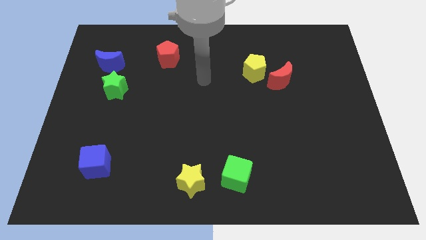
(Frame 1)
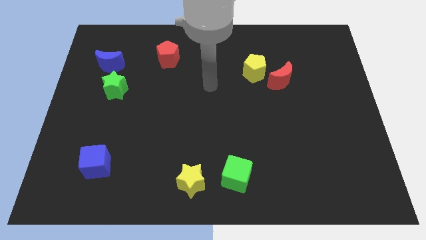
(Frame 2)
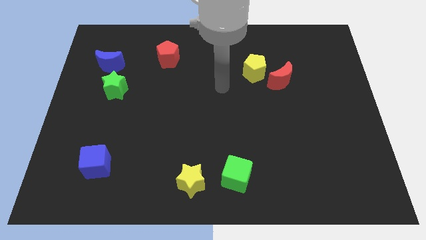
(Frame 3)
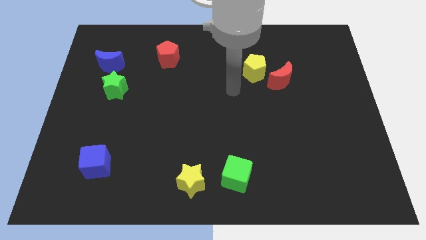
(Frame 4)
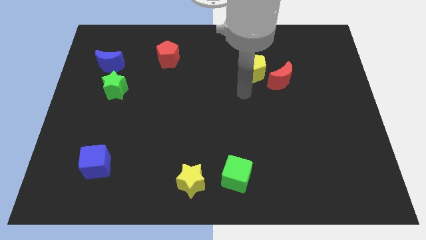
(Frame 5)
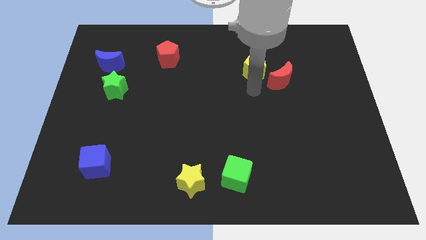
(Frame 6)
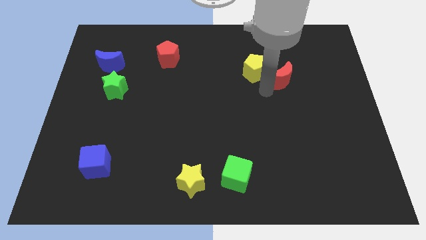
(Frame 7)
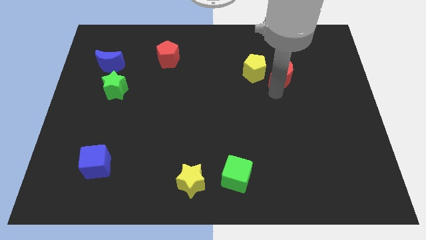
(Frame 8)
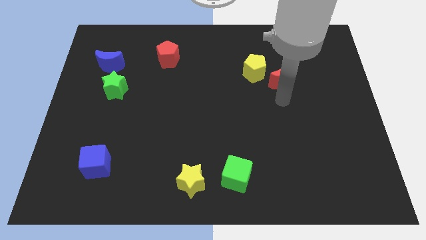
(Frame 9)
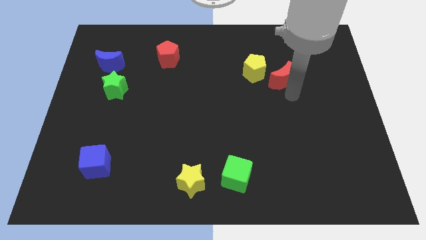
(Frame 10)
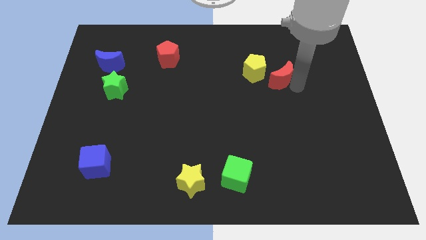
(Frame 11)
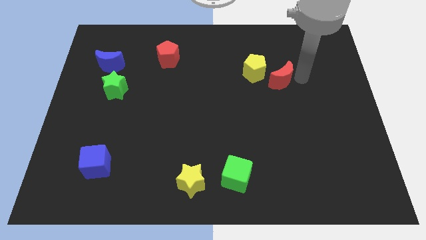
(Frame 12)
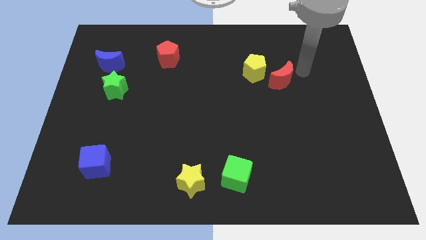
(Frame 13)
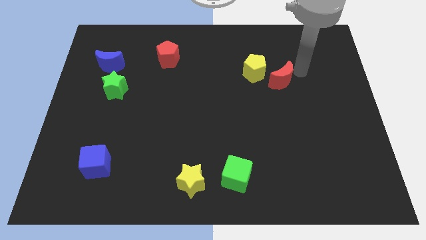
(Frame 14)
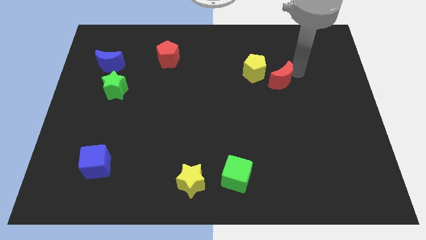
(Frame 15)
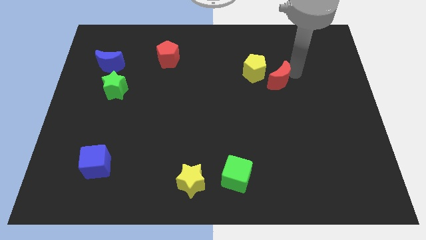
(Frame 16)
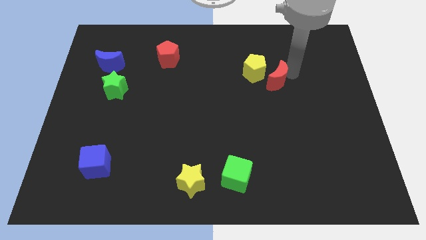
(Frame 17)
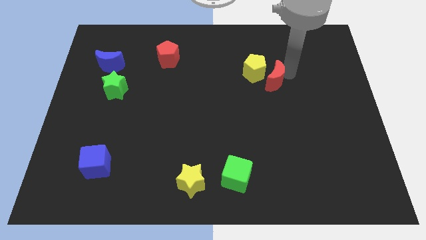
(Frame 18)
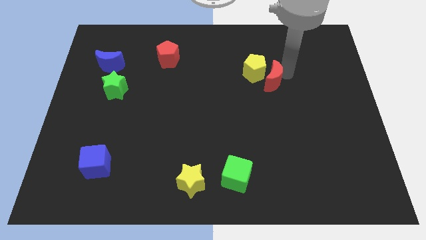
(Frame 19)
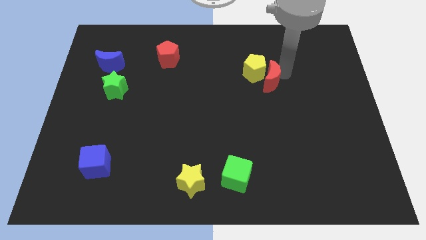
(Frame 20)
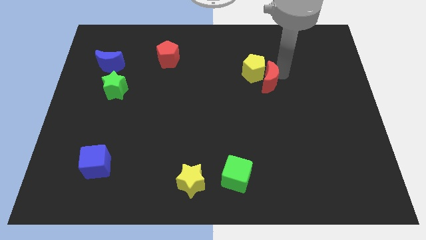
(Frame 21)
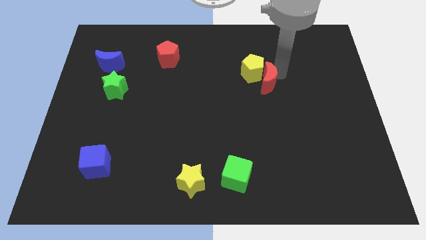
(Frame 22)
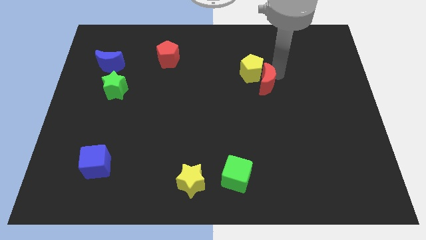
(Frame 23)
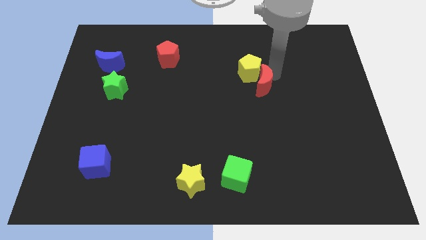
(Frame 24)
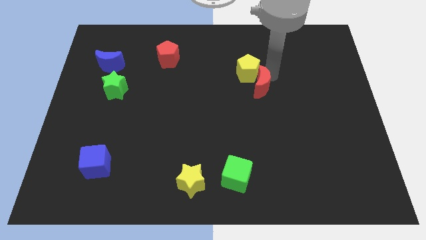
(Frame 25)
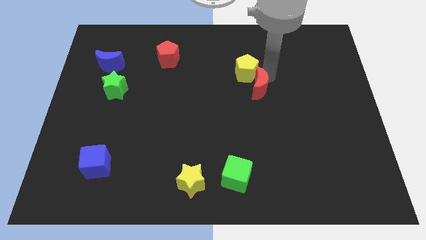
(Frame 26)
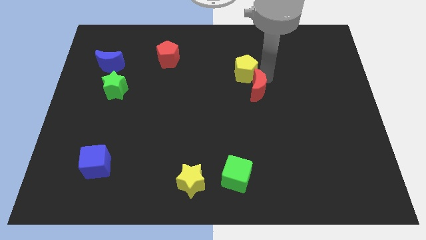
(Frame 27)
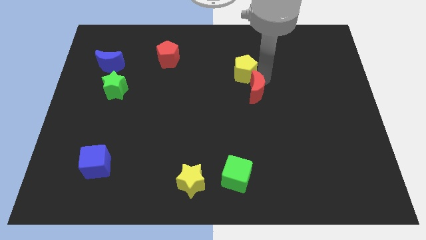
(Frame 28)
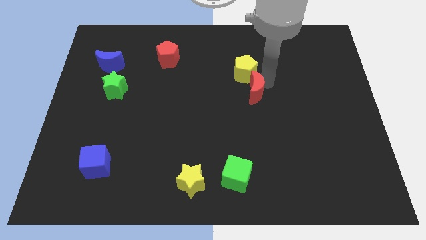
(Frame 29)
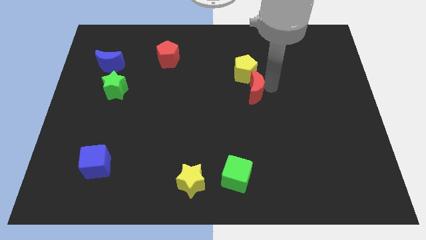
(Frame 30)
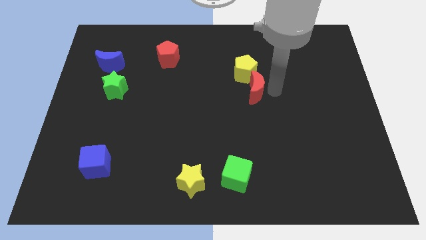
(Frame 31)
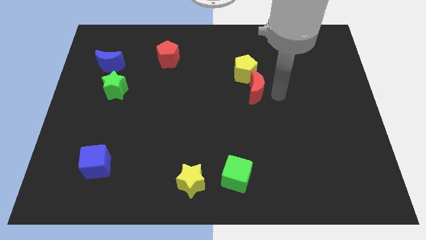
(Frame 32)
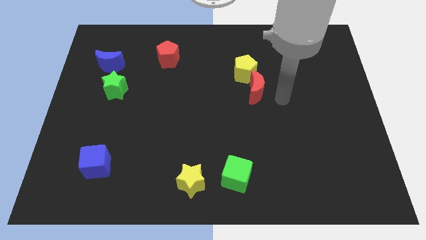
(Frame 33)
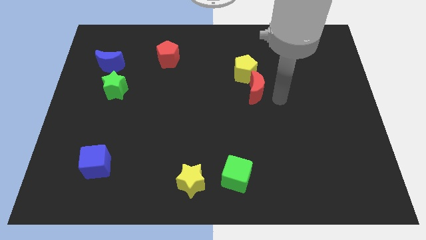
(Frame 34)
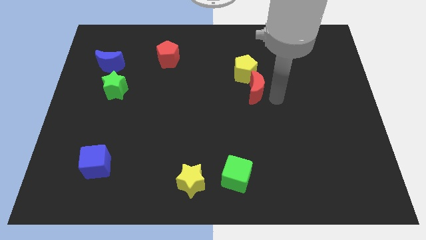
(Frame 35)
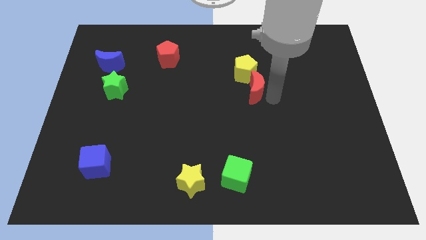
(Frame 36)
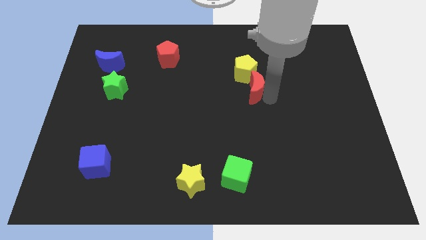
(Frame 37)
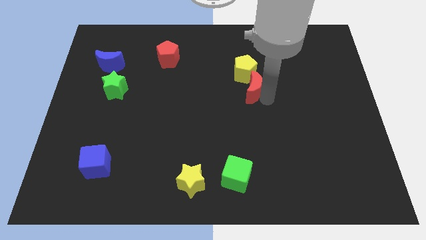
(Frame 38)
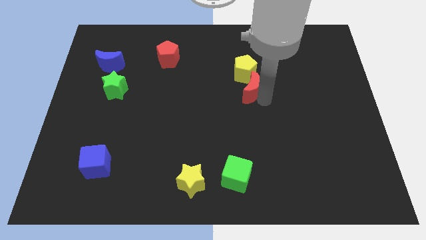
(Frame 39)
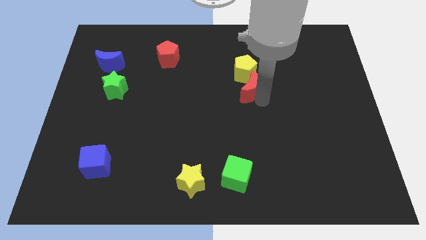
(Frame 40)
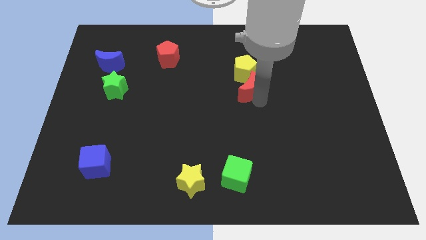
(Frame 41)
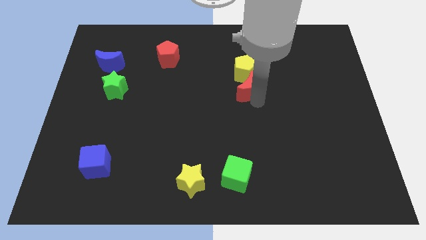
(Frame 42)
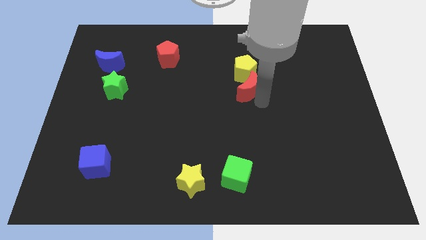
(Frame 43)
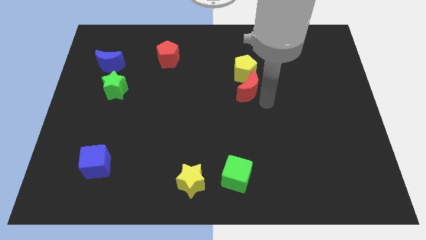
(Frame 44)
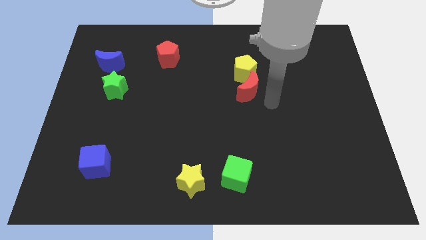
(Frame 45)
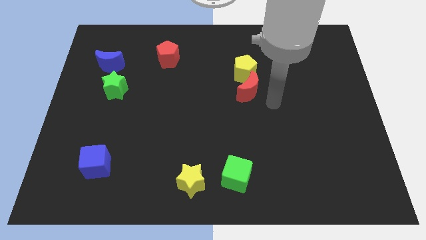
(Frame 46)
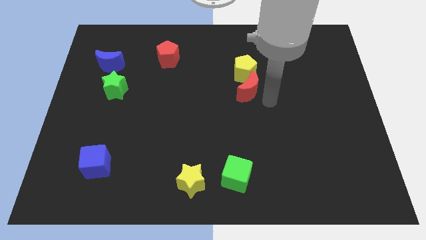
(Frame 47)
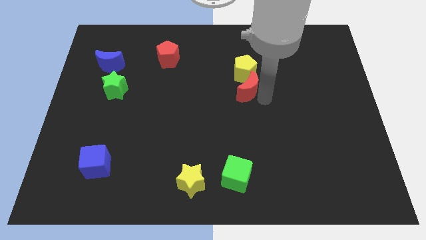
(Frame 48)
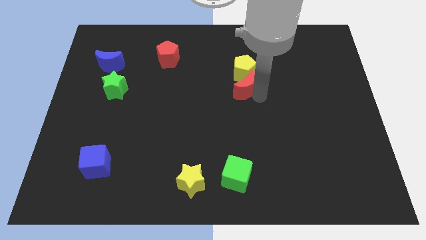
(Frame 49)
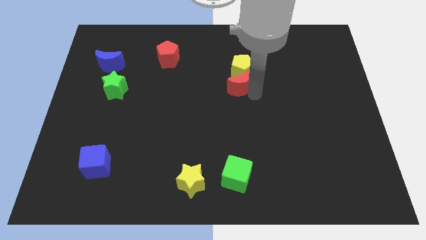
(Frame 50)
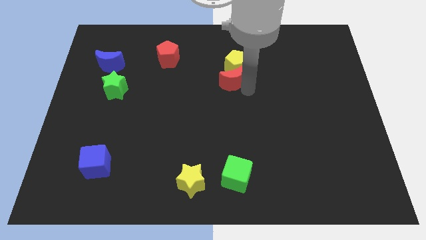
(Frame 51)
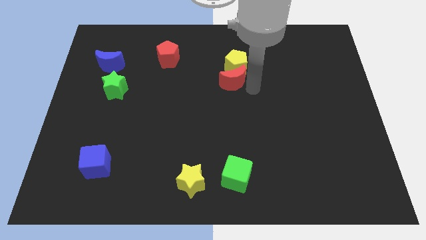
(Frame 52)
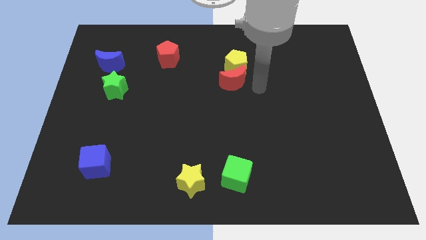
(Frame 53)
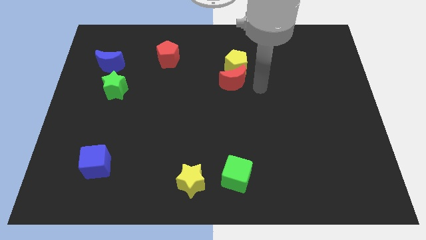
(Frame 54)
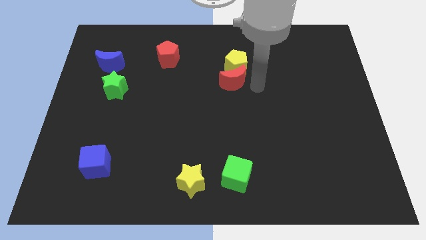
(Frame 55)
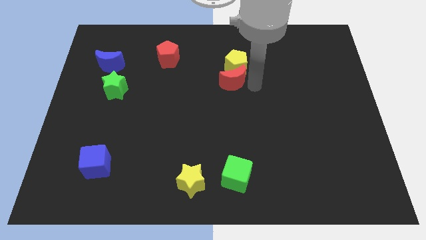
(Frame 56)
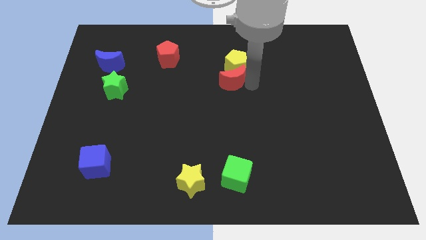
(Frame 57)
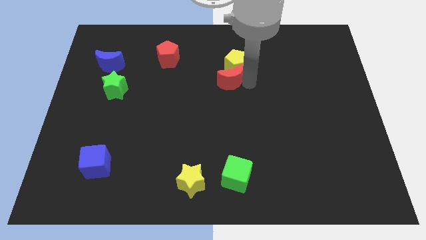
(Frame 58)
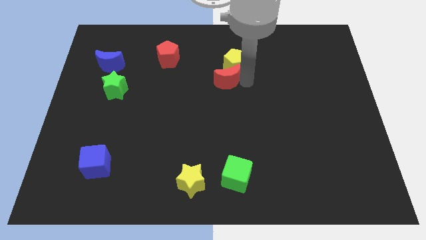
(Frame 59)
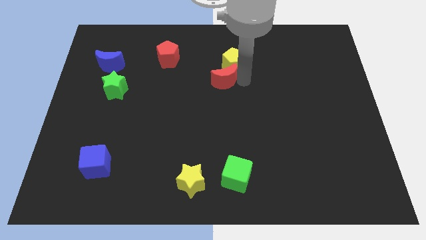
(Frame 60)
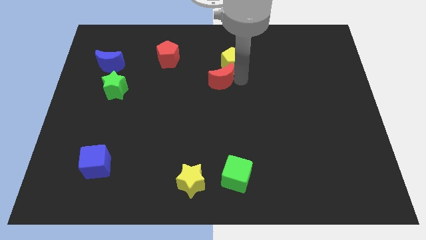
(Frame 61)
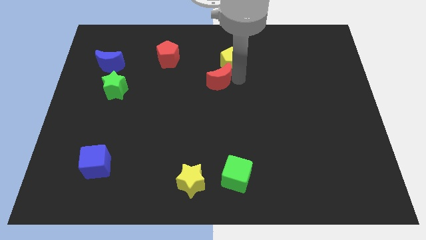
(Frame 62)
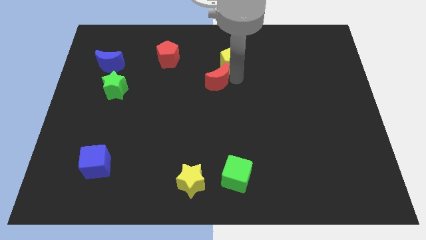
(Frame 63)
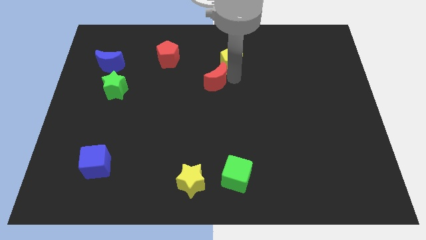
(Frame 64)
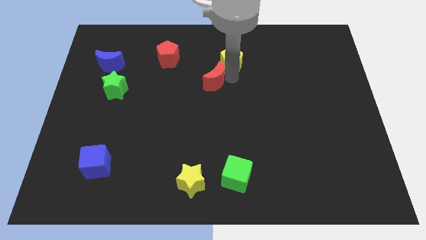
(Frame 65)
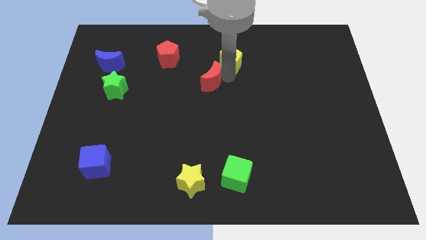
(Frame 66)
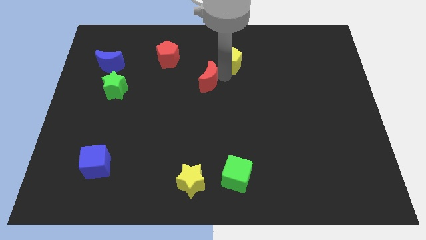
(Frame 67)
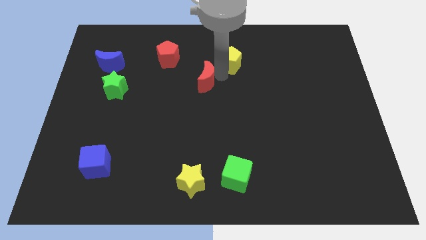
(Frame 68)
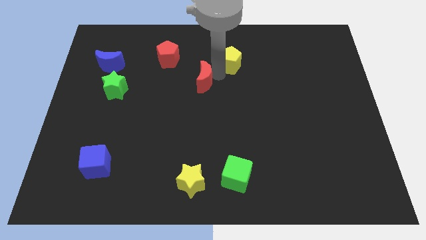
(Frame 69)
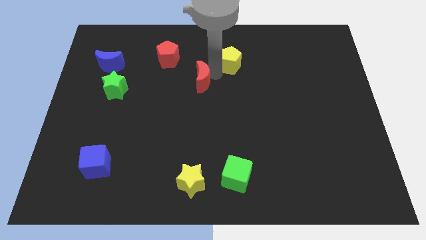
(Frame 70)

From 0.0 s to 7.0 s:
slide the red moon left

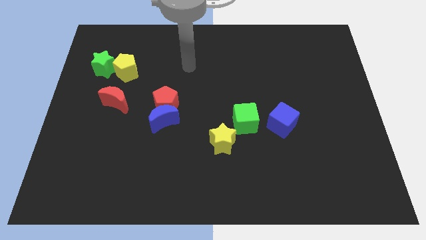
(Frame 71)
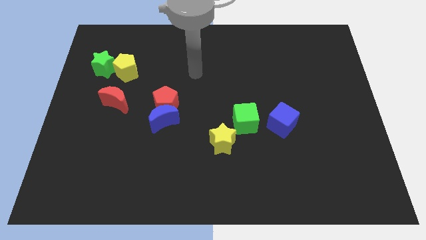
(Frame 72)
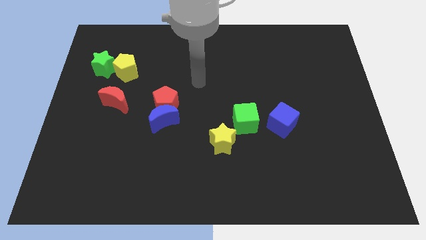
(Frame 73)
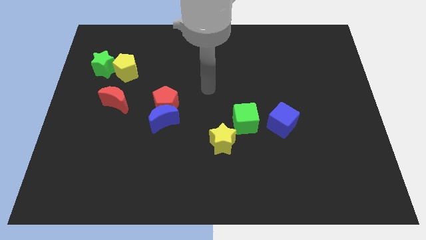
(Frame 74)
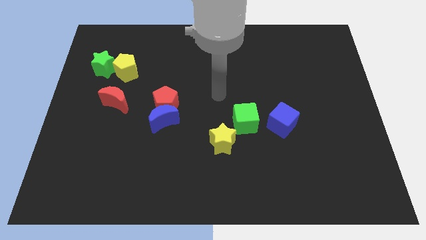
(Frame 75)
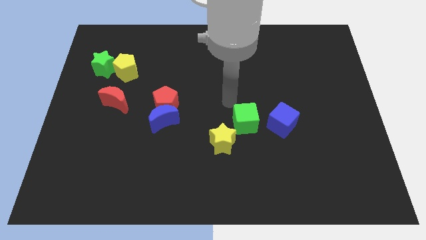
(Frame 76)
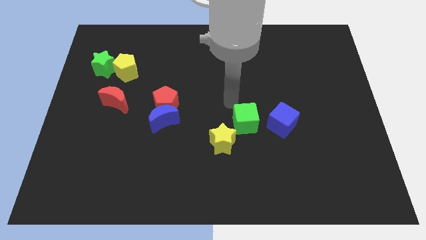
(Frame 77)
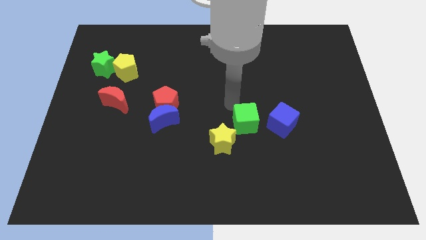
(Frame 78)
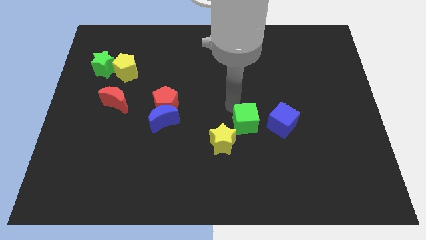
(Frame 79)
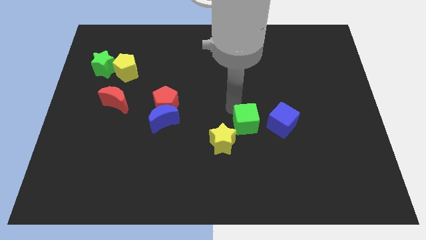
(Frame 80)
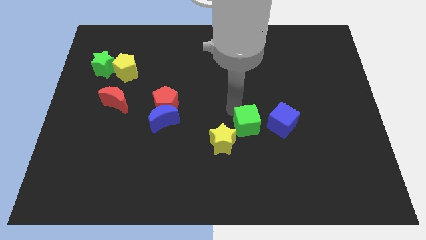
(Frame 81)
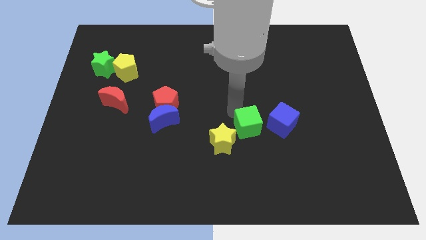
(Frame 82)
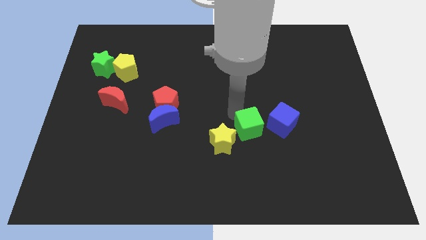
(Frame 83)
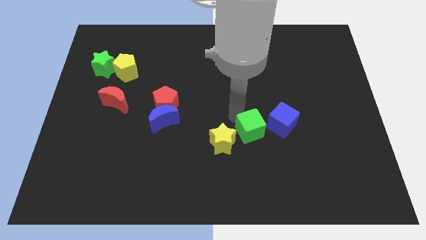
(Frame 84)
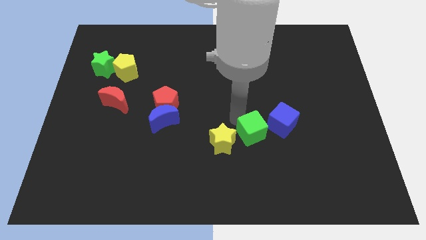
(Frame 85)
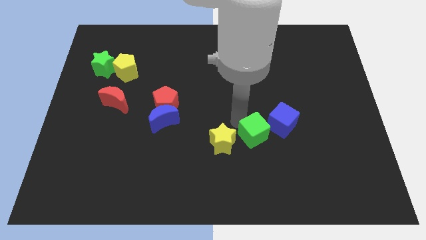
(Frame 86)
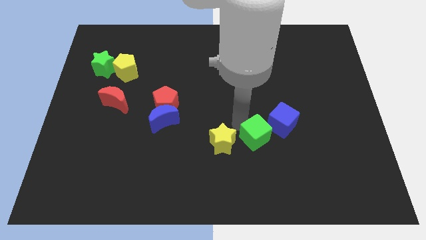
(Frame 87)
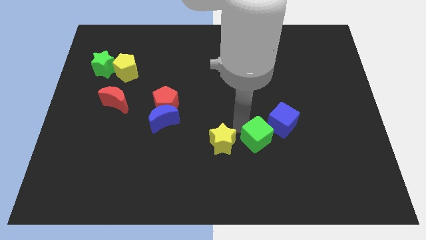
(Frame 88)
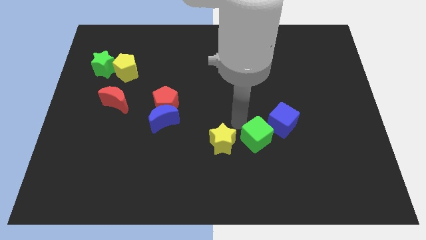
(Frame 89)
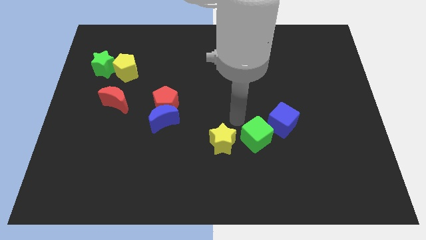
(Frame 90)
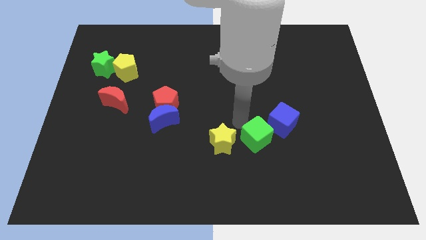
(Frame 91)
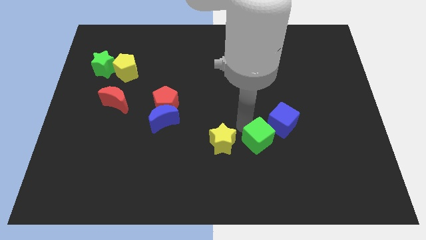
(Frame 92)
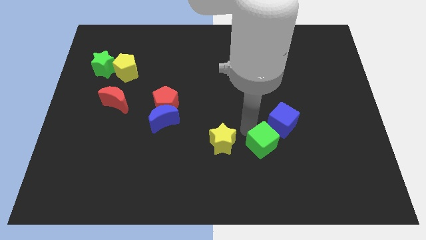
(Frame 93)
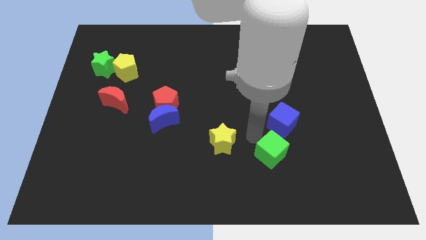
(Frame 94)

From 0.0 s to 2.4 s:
push the green cube slightly down and to the right
